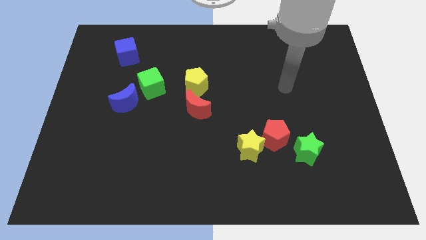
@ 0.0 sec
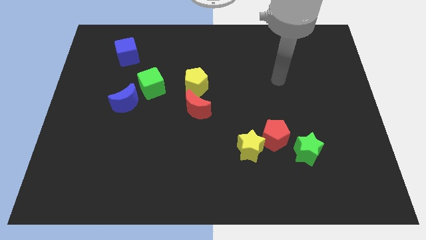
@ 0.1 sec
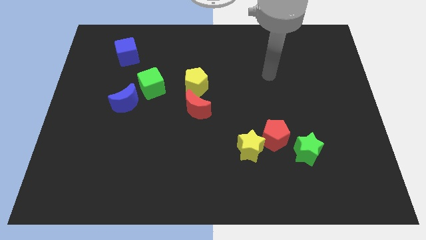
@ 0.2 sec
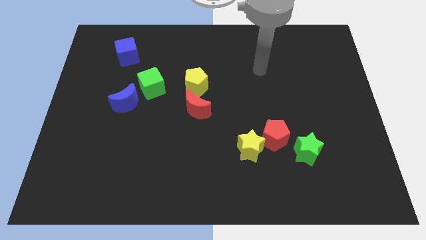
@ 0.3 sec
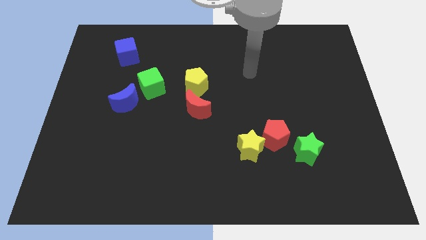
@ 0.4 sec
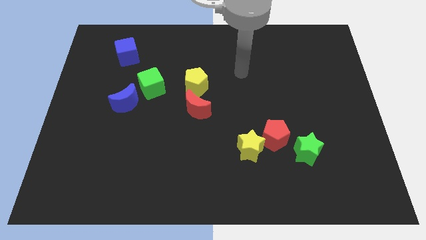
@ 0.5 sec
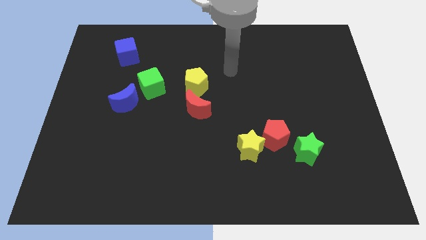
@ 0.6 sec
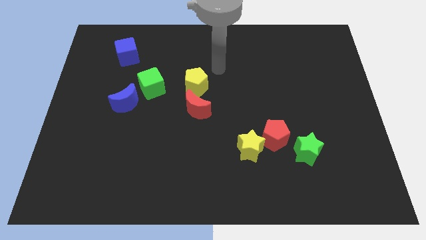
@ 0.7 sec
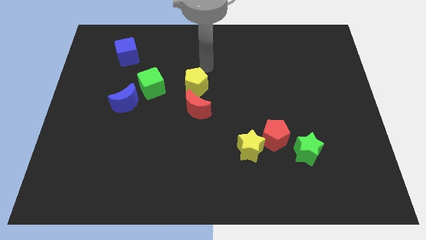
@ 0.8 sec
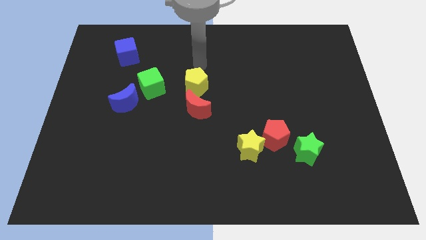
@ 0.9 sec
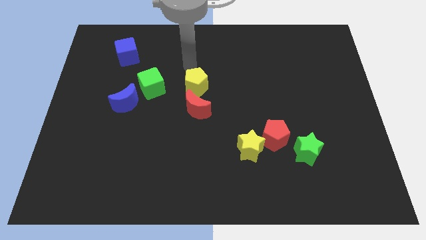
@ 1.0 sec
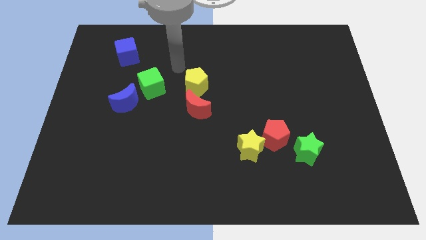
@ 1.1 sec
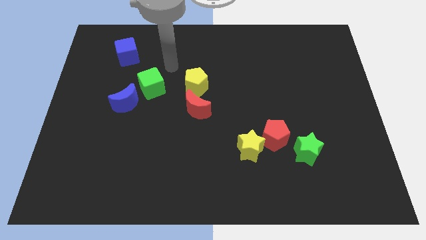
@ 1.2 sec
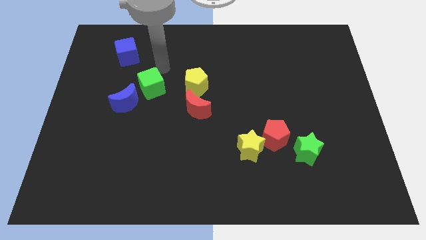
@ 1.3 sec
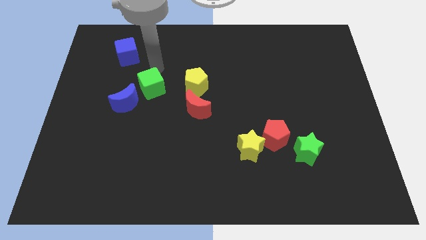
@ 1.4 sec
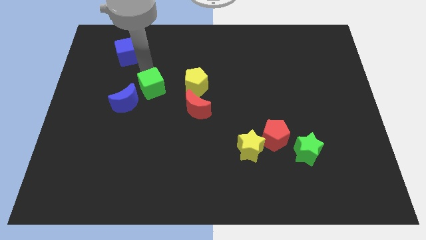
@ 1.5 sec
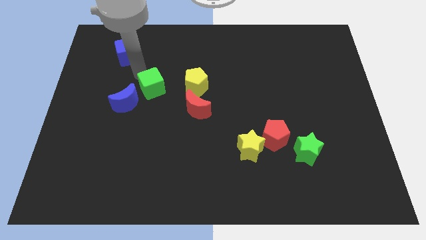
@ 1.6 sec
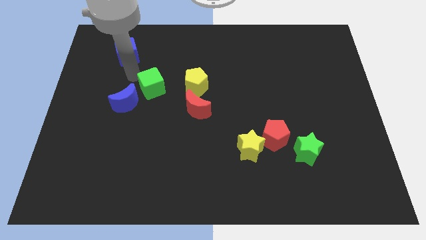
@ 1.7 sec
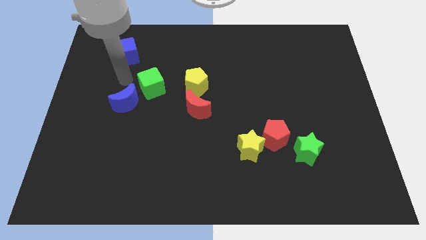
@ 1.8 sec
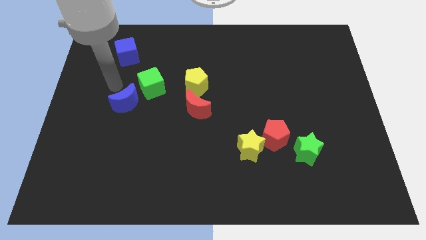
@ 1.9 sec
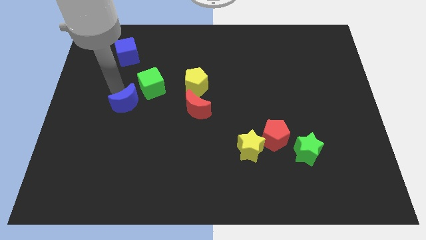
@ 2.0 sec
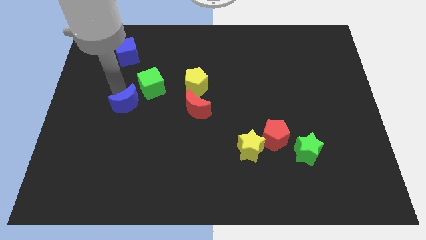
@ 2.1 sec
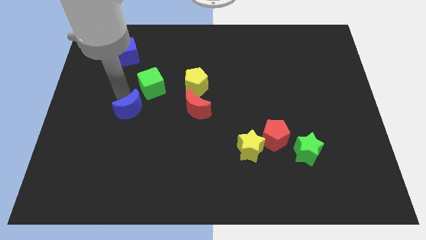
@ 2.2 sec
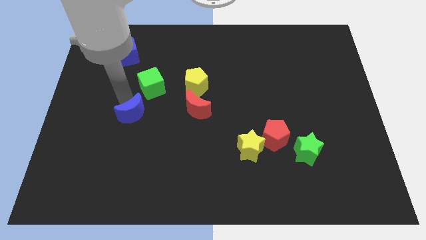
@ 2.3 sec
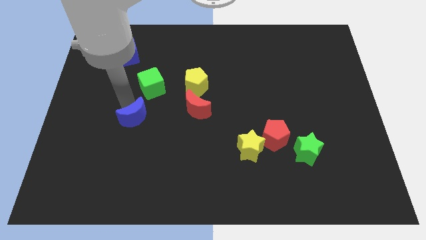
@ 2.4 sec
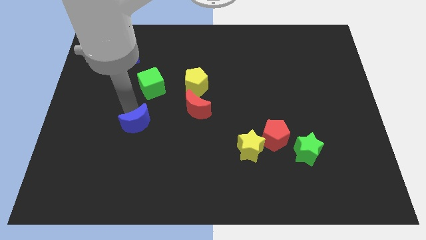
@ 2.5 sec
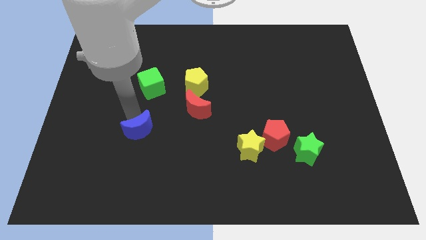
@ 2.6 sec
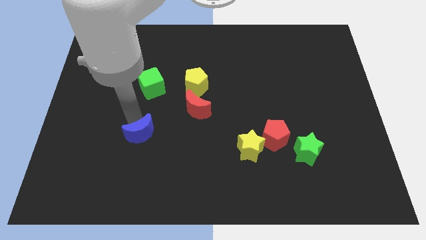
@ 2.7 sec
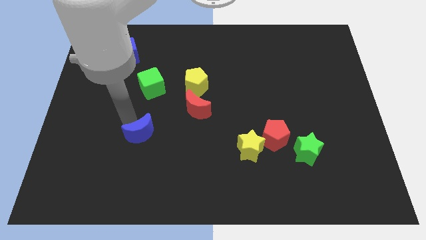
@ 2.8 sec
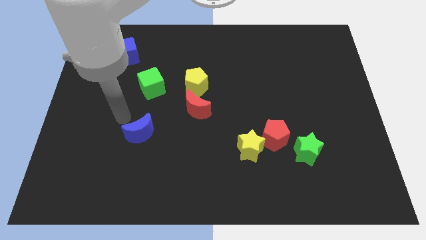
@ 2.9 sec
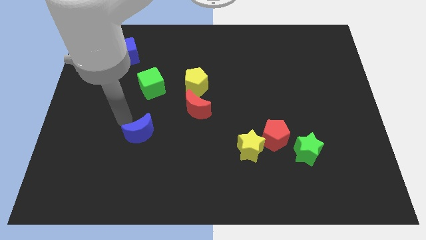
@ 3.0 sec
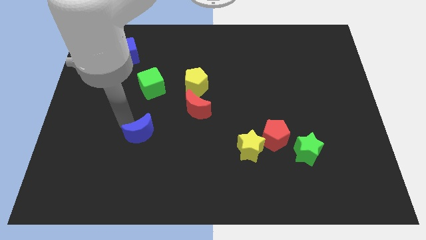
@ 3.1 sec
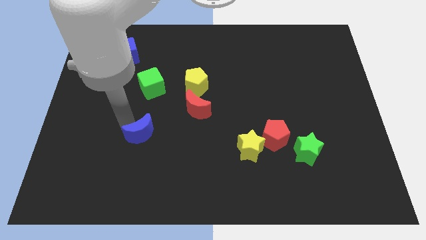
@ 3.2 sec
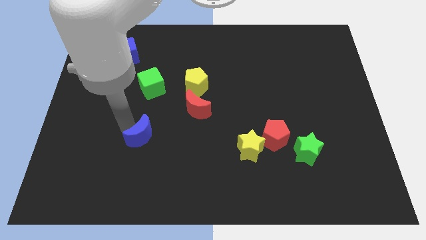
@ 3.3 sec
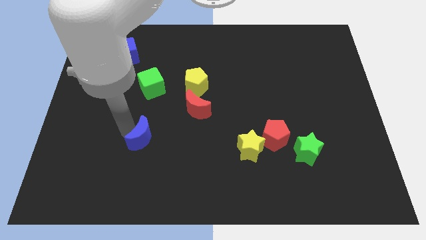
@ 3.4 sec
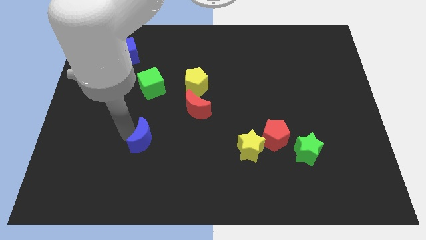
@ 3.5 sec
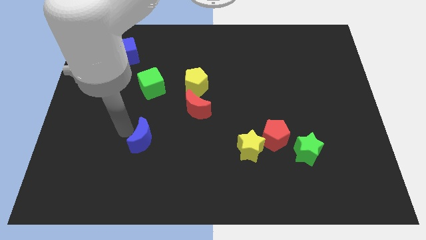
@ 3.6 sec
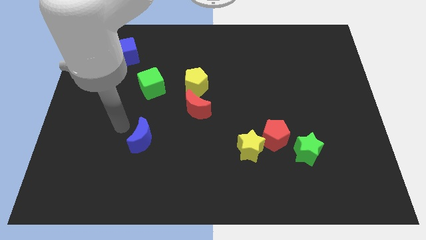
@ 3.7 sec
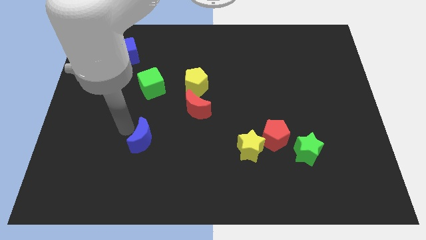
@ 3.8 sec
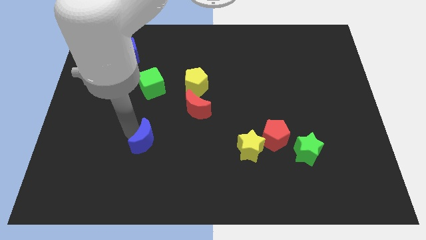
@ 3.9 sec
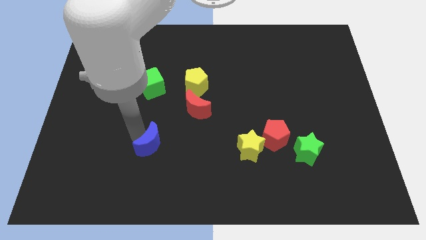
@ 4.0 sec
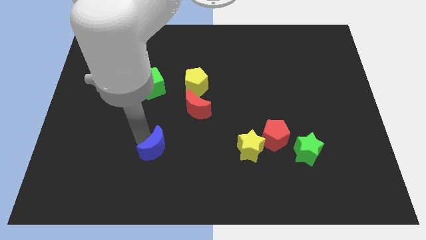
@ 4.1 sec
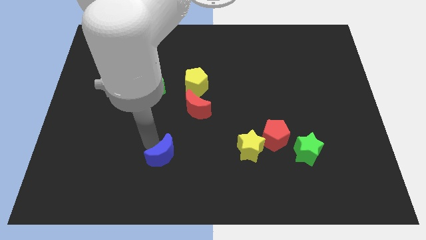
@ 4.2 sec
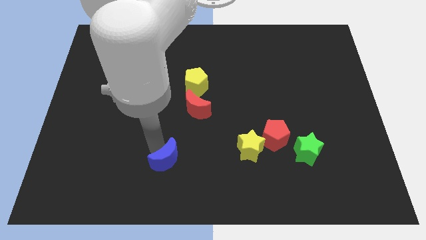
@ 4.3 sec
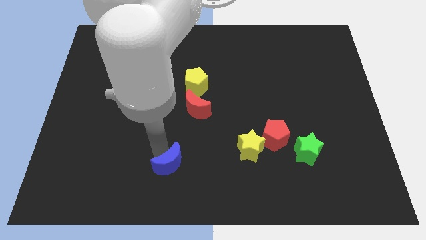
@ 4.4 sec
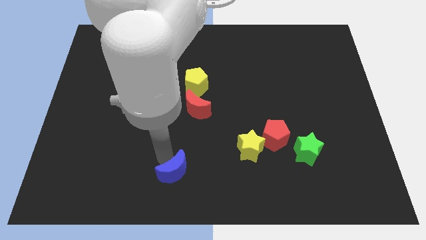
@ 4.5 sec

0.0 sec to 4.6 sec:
slide the blue moon to the bottom

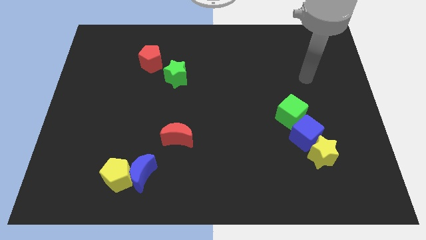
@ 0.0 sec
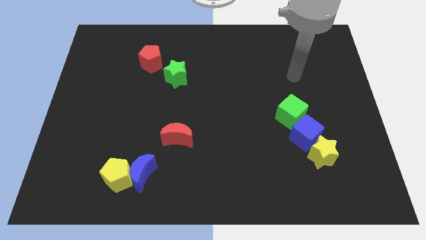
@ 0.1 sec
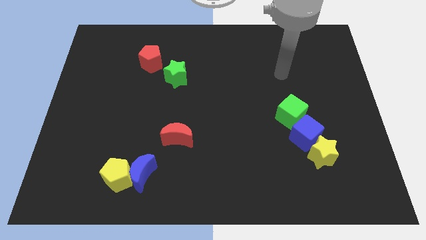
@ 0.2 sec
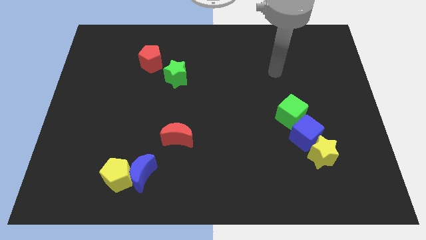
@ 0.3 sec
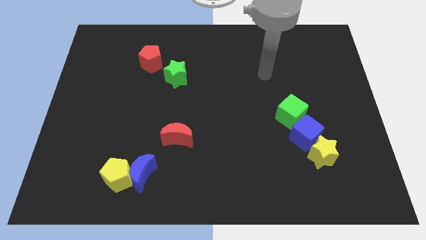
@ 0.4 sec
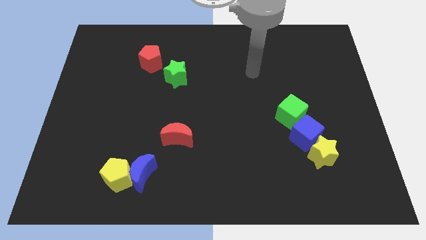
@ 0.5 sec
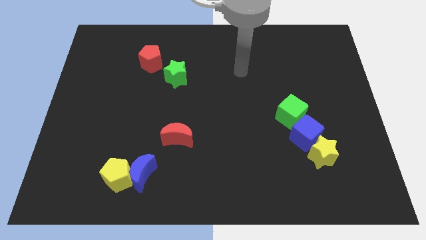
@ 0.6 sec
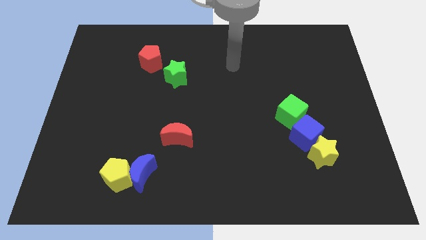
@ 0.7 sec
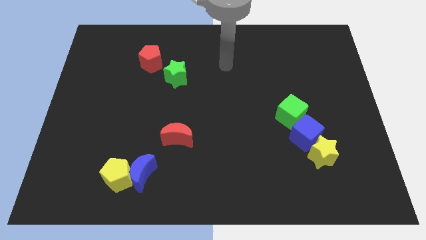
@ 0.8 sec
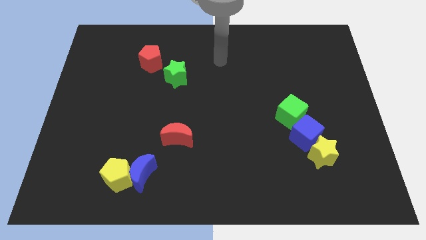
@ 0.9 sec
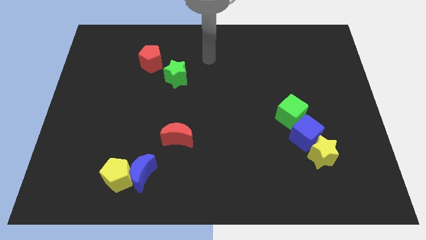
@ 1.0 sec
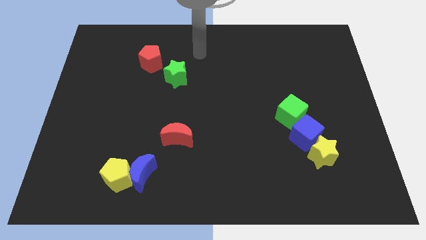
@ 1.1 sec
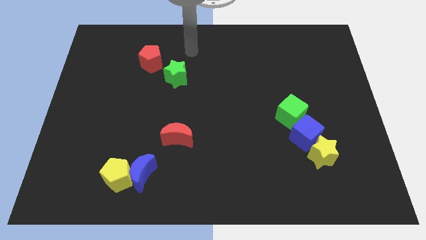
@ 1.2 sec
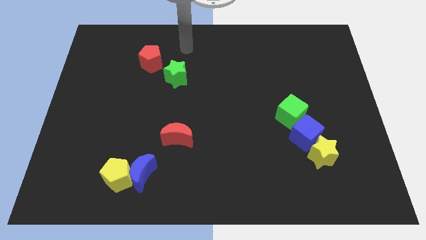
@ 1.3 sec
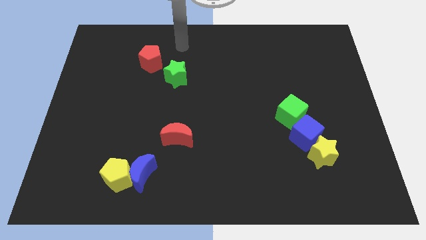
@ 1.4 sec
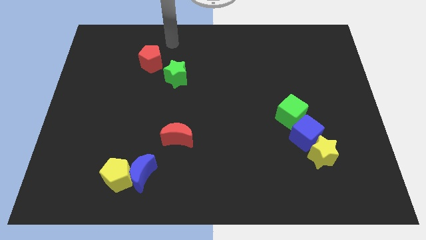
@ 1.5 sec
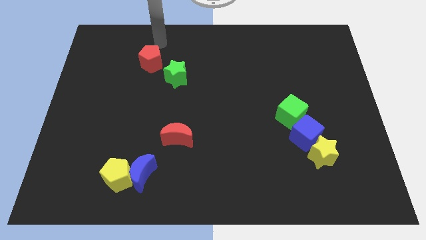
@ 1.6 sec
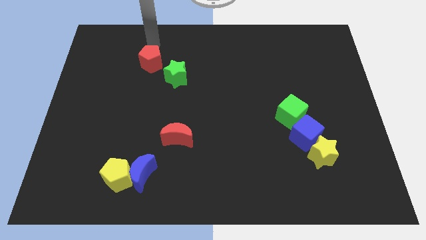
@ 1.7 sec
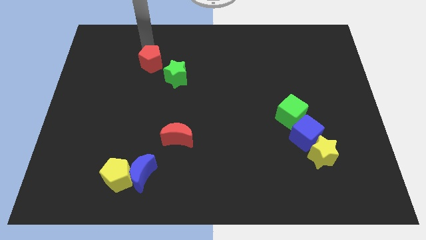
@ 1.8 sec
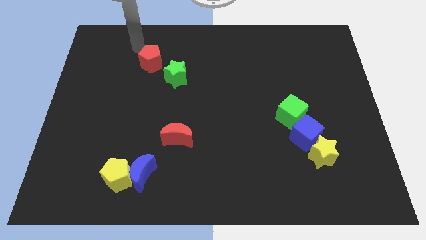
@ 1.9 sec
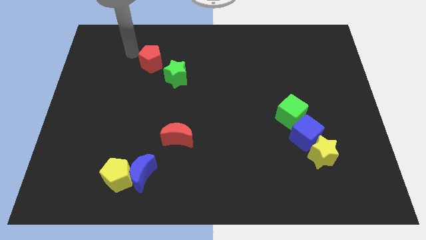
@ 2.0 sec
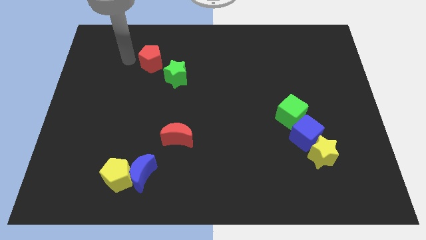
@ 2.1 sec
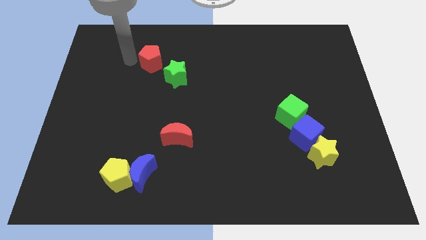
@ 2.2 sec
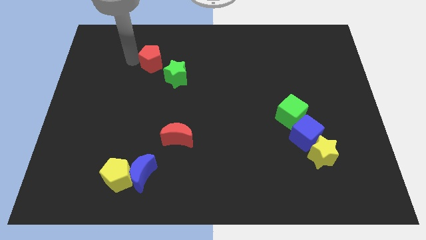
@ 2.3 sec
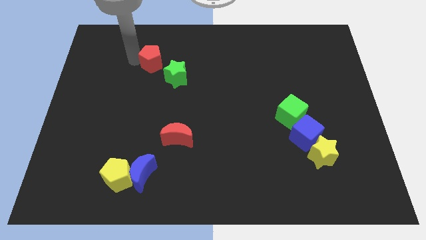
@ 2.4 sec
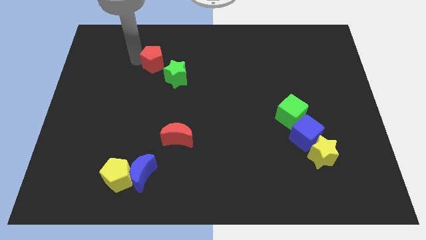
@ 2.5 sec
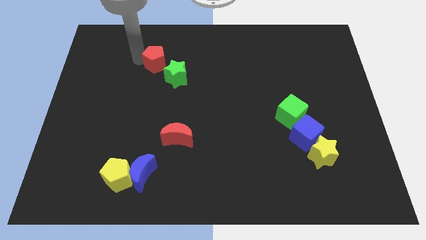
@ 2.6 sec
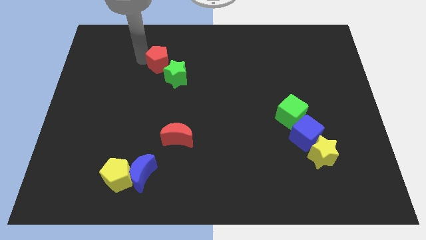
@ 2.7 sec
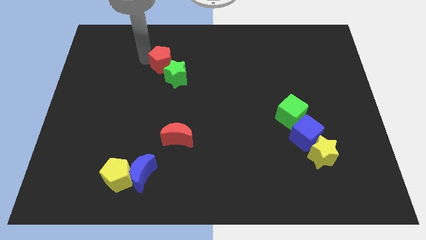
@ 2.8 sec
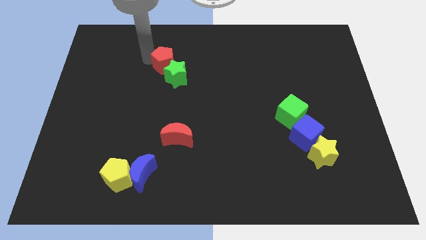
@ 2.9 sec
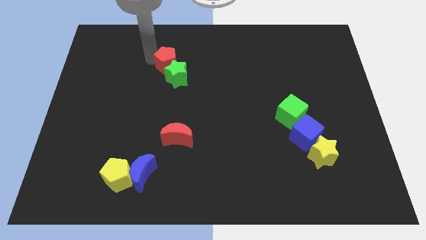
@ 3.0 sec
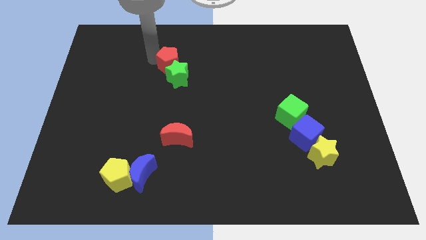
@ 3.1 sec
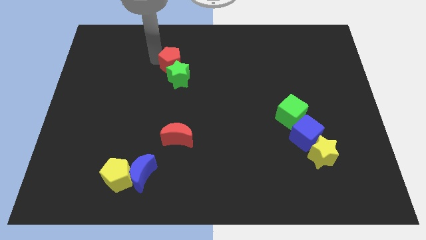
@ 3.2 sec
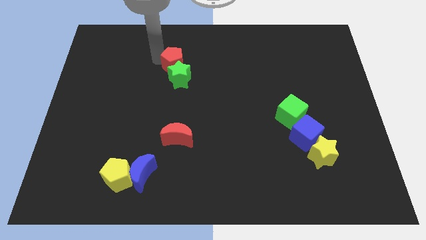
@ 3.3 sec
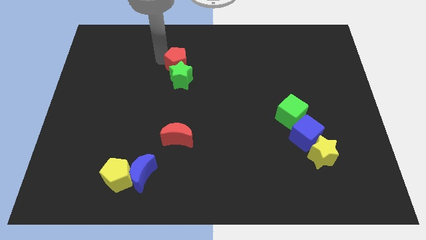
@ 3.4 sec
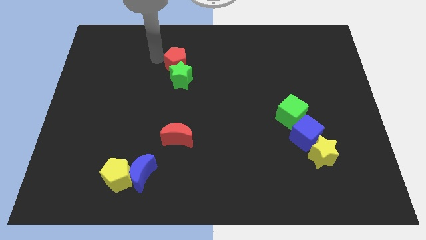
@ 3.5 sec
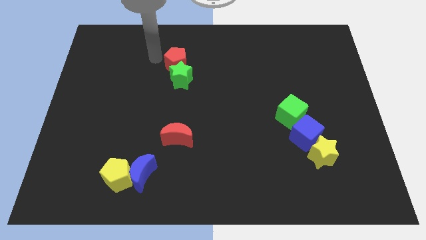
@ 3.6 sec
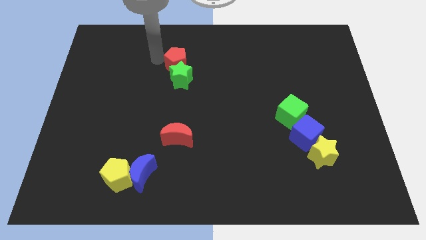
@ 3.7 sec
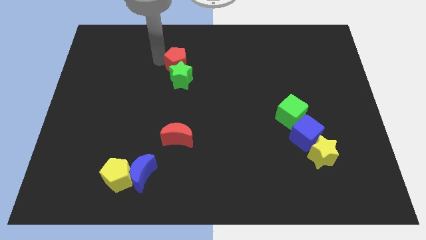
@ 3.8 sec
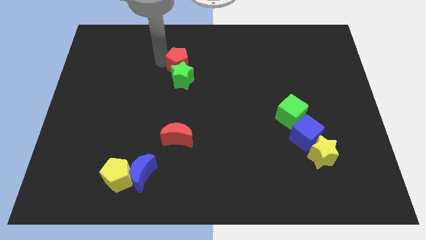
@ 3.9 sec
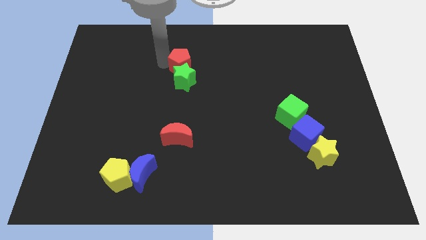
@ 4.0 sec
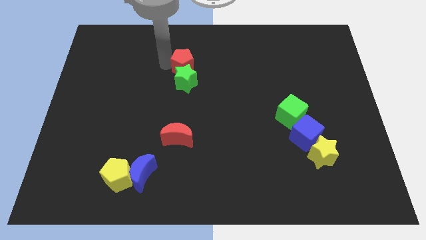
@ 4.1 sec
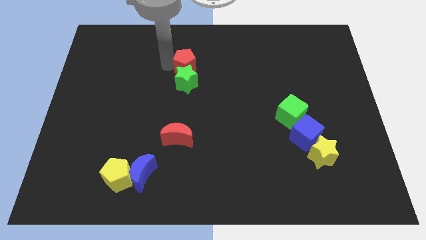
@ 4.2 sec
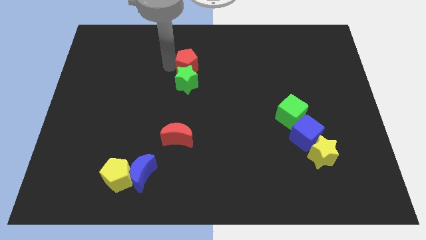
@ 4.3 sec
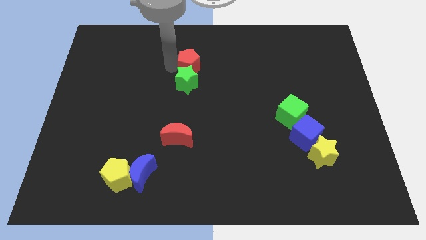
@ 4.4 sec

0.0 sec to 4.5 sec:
put the red pentagon to the middle of the board
